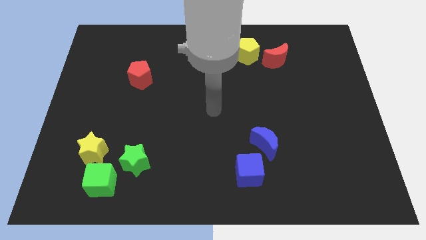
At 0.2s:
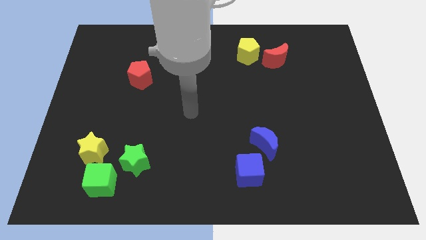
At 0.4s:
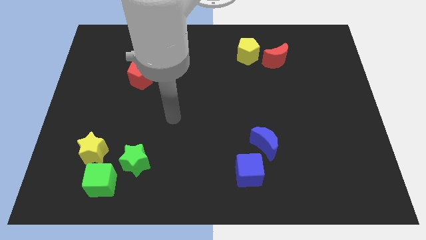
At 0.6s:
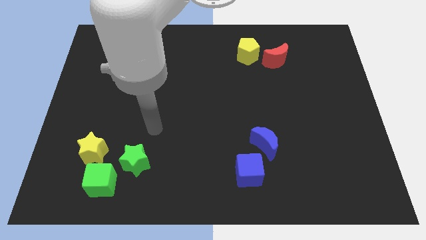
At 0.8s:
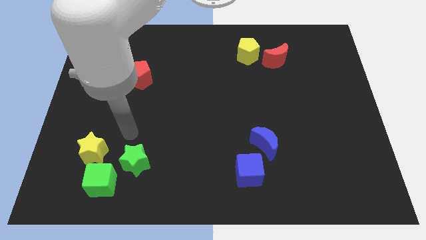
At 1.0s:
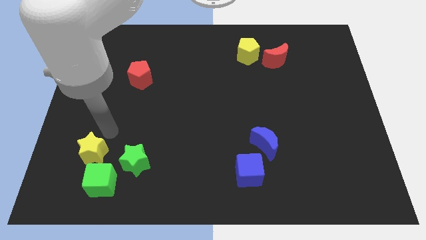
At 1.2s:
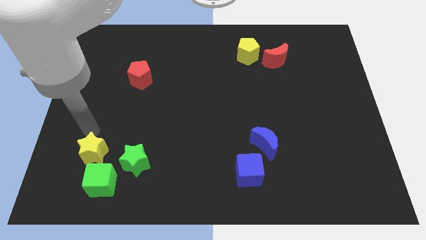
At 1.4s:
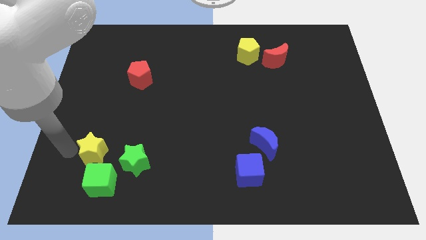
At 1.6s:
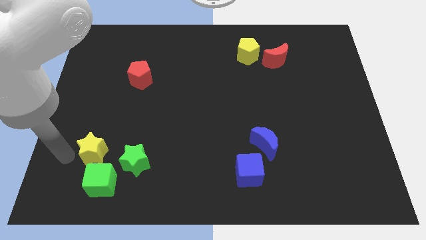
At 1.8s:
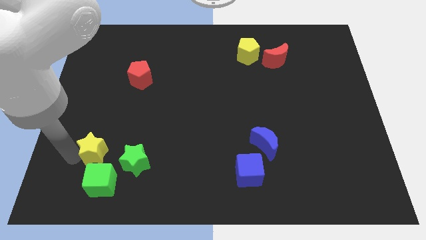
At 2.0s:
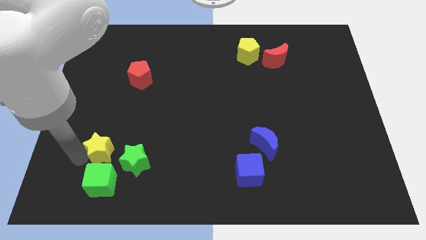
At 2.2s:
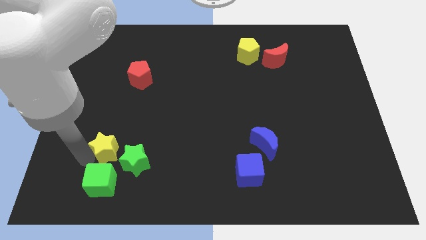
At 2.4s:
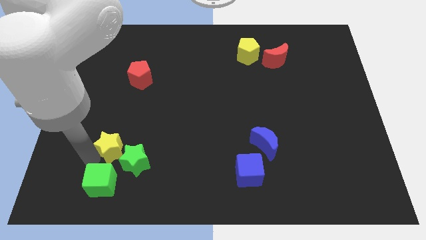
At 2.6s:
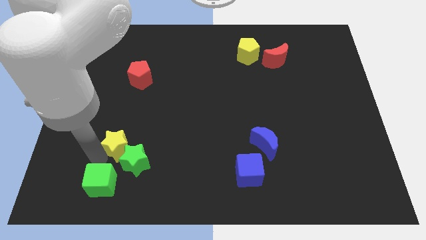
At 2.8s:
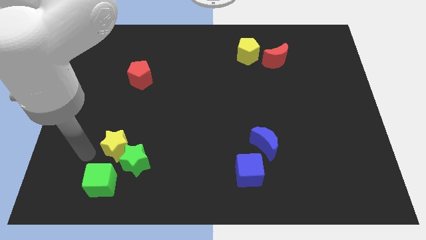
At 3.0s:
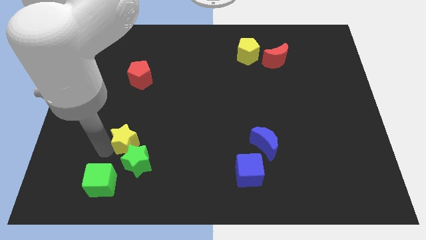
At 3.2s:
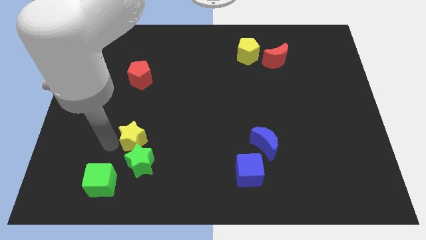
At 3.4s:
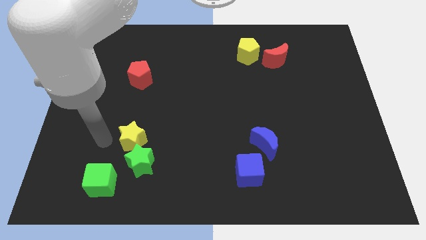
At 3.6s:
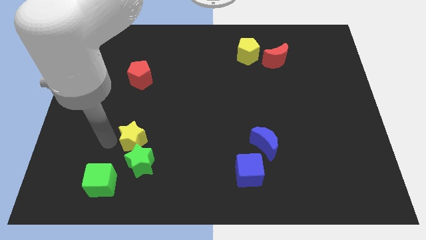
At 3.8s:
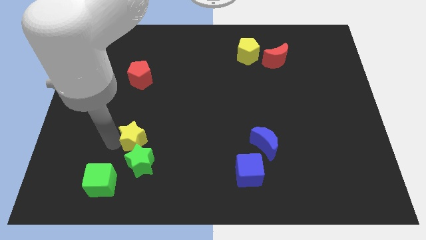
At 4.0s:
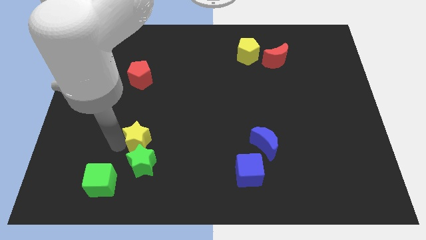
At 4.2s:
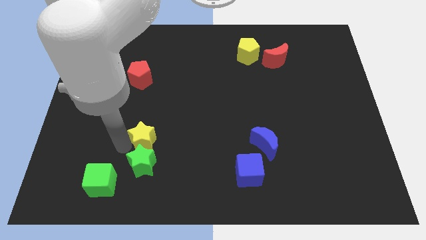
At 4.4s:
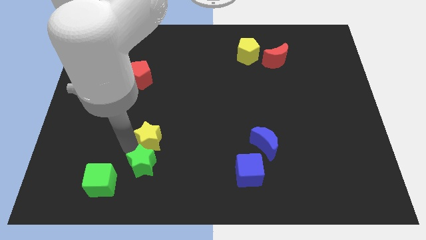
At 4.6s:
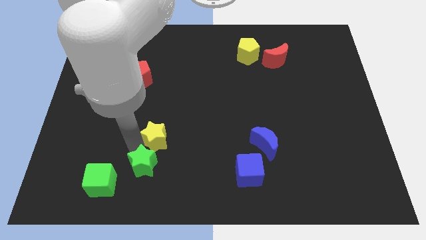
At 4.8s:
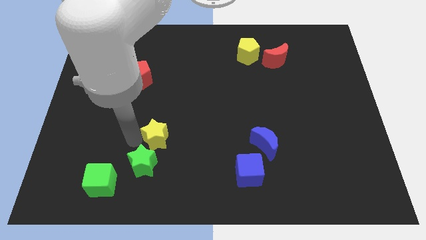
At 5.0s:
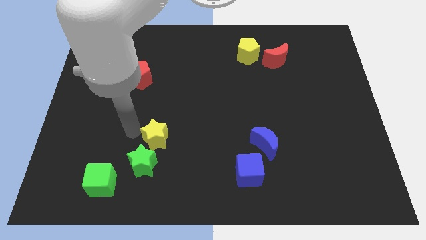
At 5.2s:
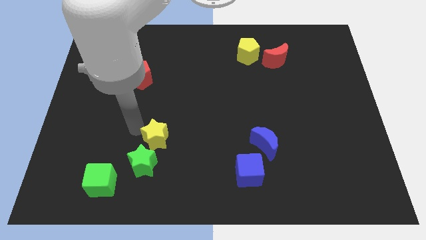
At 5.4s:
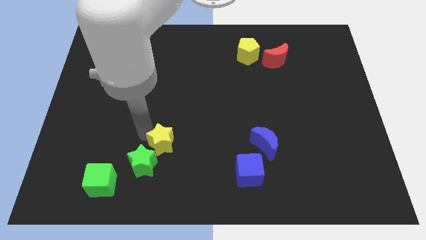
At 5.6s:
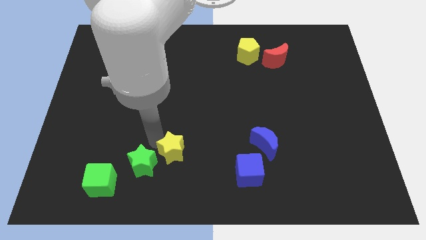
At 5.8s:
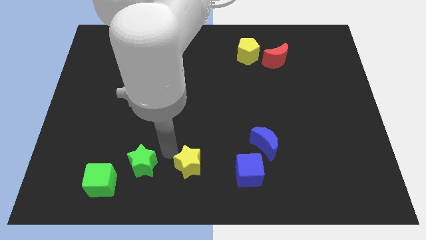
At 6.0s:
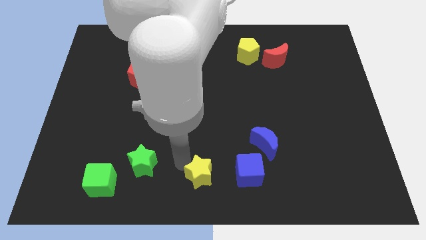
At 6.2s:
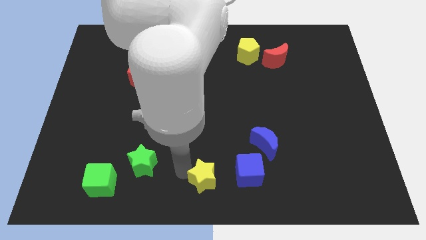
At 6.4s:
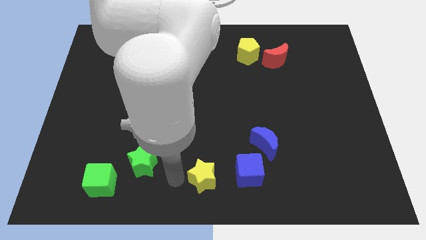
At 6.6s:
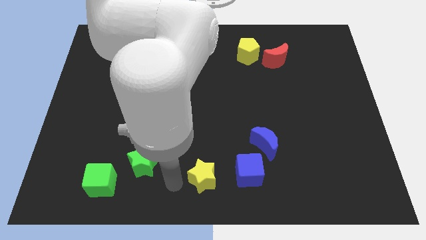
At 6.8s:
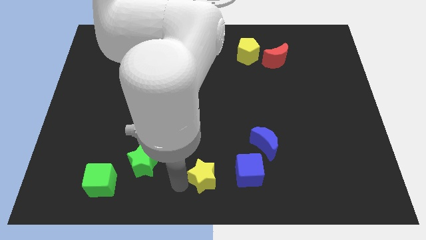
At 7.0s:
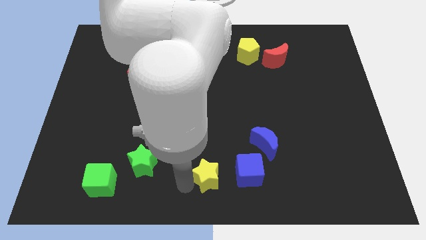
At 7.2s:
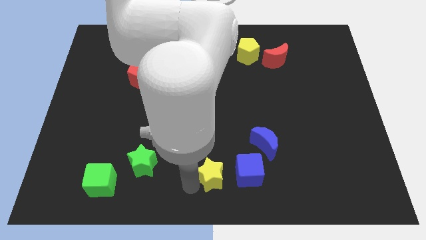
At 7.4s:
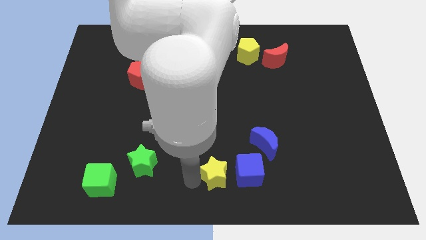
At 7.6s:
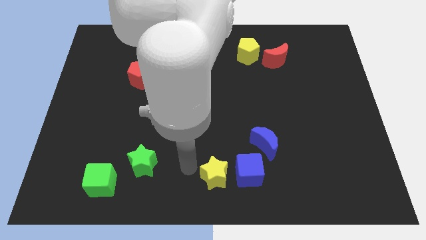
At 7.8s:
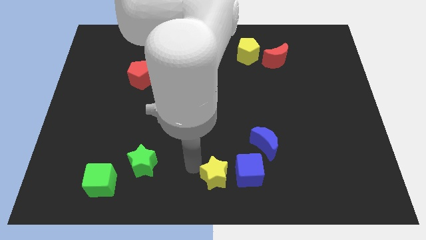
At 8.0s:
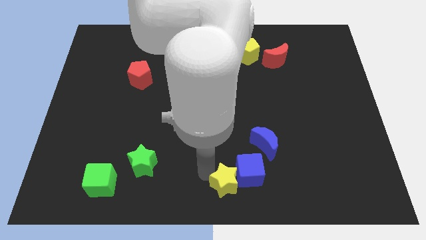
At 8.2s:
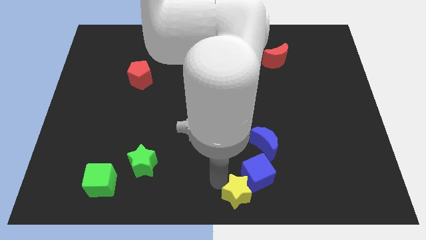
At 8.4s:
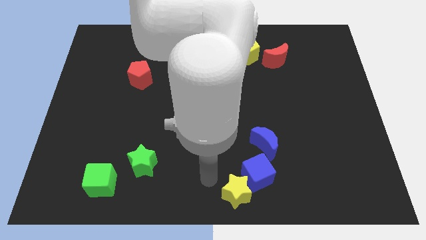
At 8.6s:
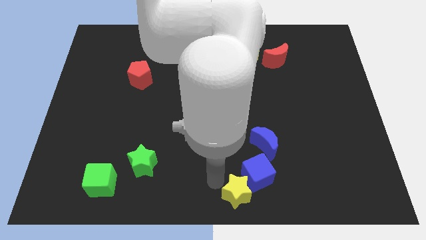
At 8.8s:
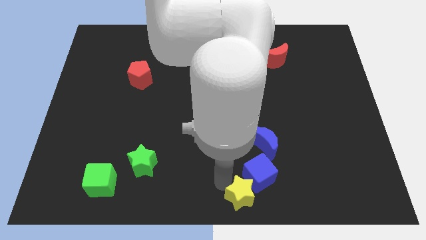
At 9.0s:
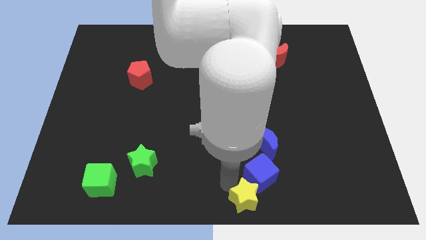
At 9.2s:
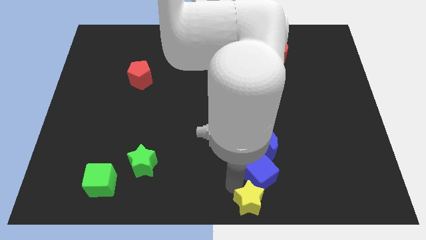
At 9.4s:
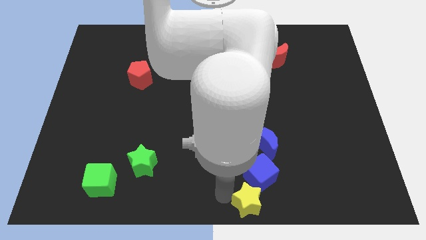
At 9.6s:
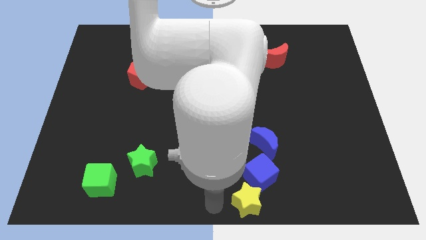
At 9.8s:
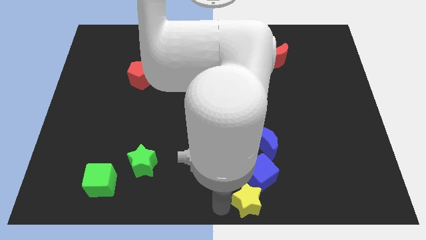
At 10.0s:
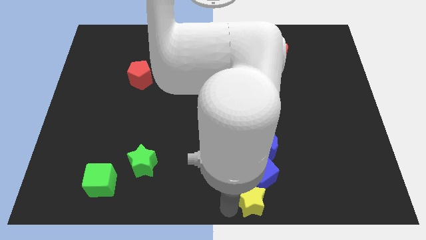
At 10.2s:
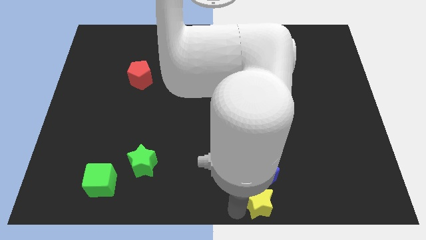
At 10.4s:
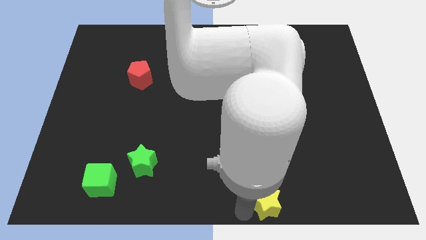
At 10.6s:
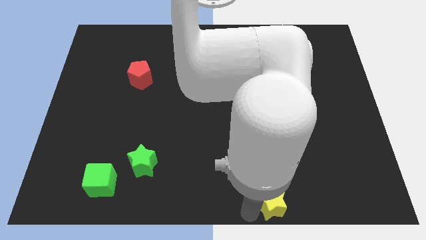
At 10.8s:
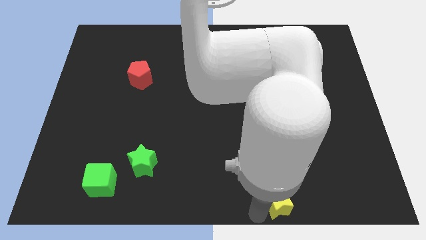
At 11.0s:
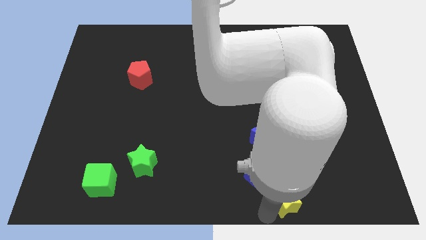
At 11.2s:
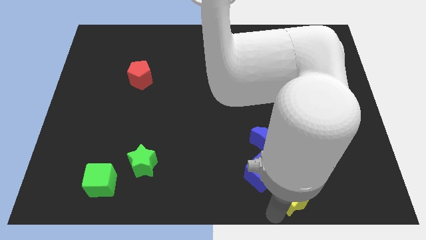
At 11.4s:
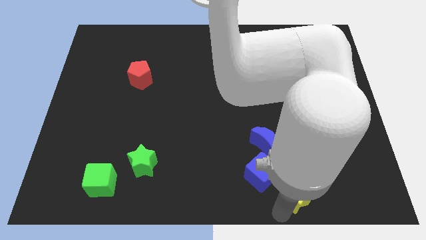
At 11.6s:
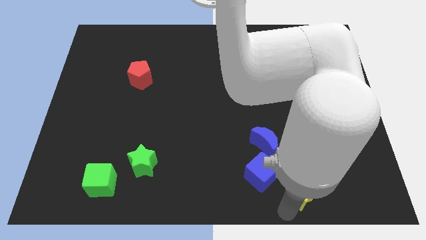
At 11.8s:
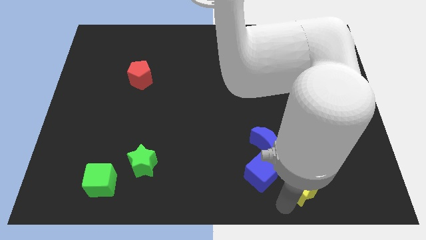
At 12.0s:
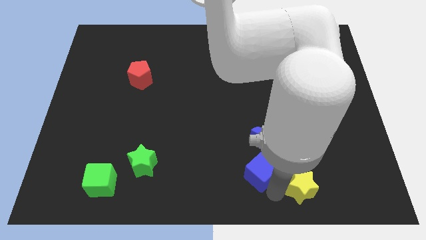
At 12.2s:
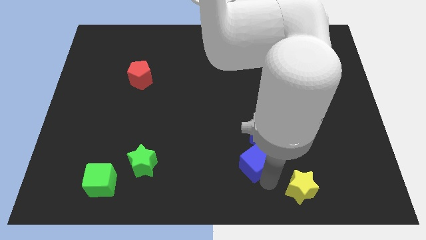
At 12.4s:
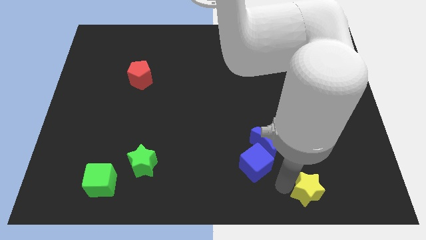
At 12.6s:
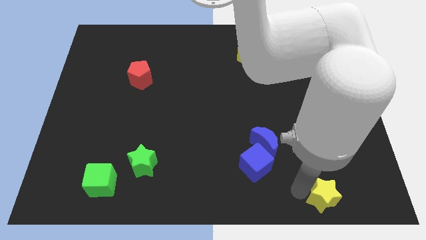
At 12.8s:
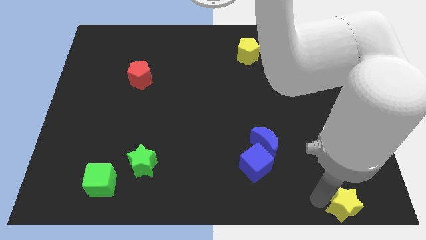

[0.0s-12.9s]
move the yellow star to the bottom right of the board
